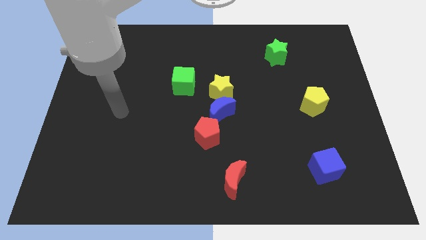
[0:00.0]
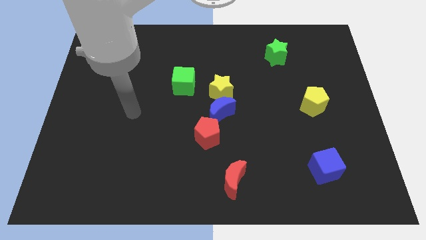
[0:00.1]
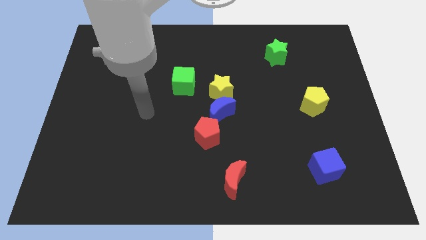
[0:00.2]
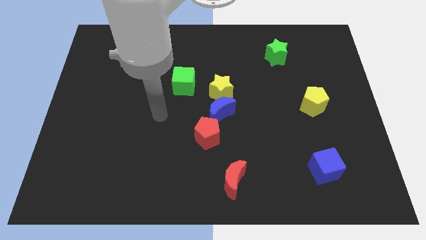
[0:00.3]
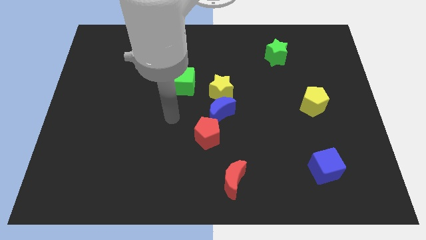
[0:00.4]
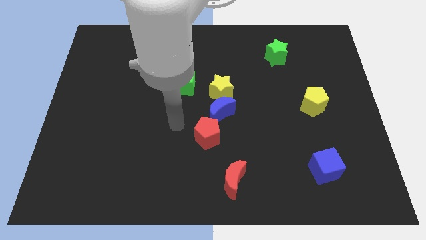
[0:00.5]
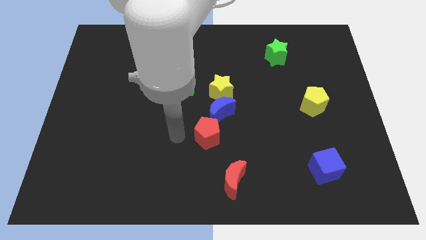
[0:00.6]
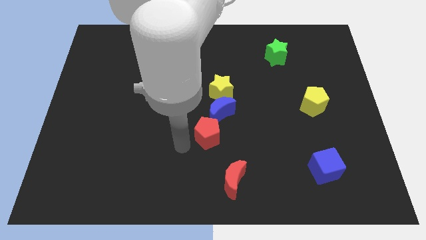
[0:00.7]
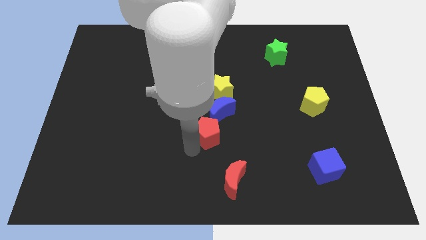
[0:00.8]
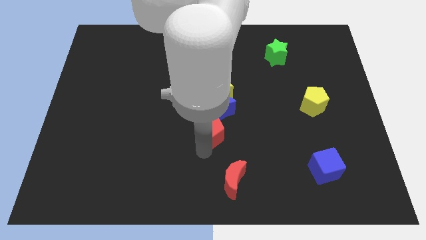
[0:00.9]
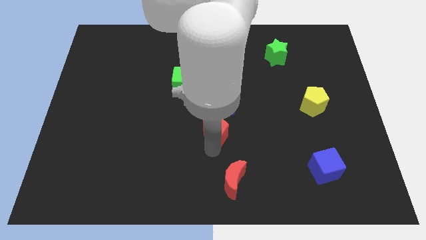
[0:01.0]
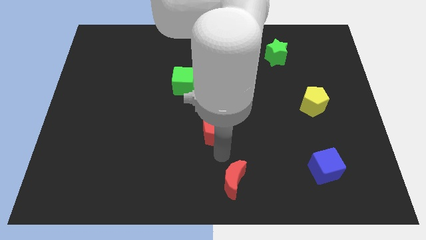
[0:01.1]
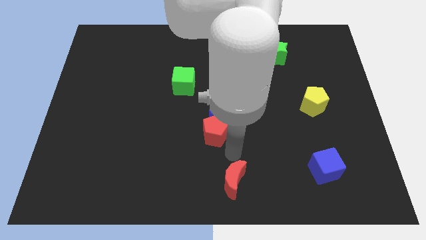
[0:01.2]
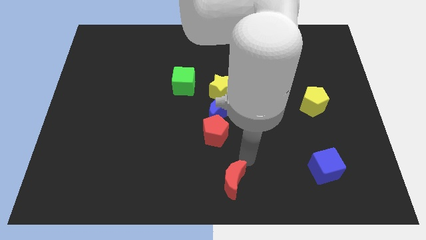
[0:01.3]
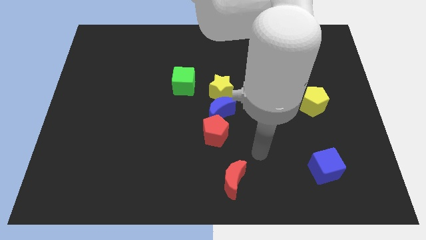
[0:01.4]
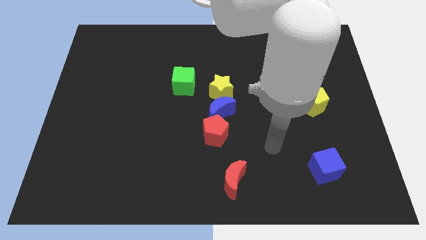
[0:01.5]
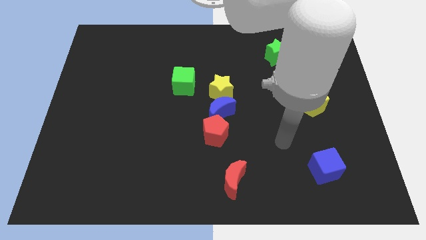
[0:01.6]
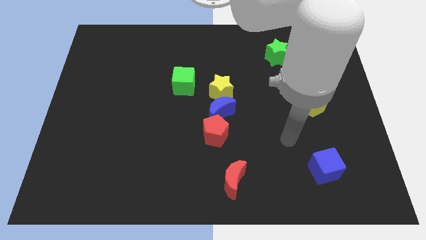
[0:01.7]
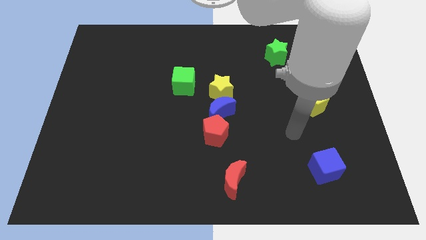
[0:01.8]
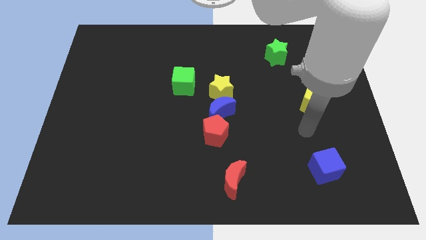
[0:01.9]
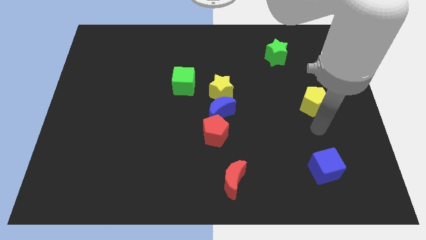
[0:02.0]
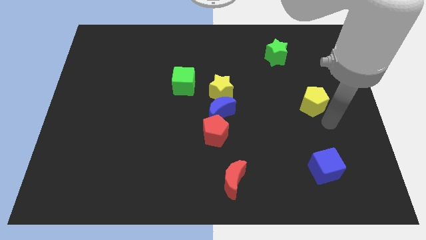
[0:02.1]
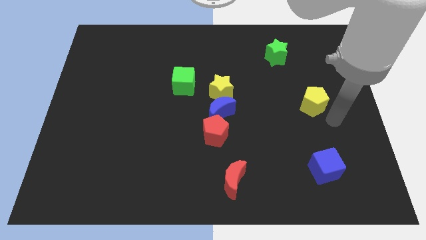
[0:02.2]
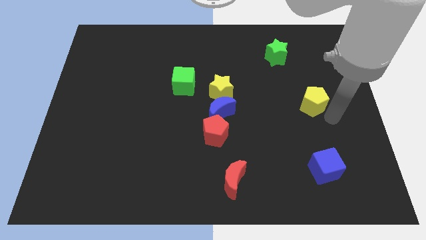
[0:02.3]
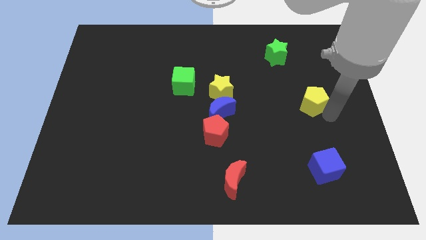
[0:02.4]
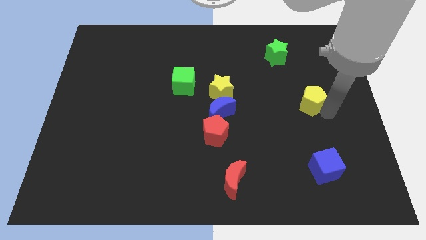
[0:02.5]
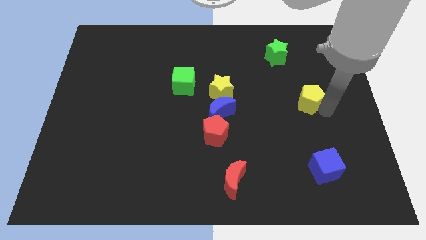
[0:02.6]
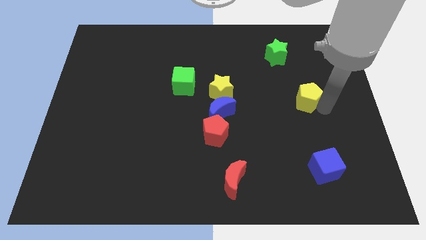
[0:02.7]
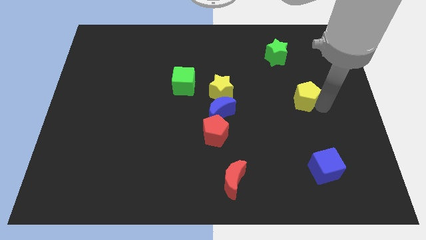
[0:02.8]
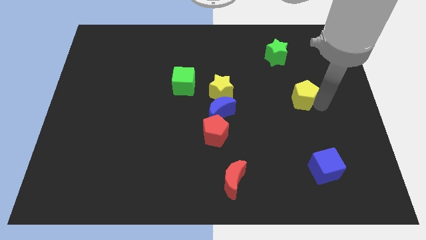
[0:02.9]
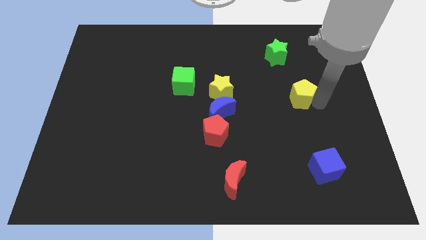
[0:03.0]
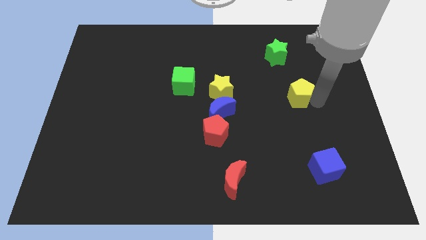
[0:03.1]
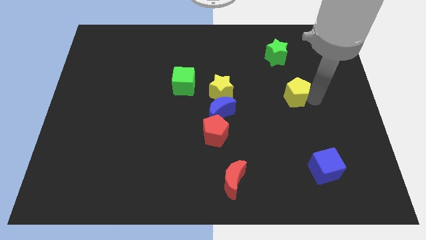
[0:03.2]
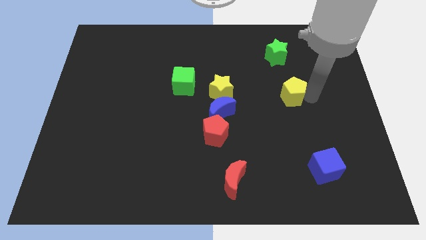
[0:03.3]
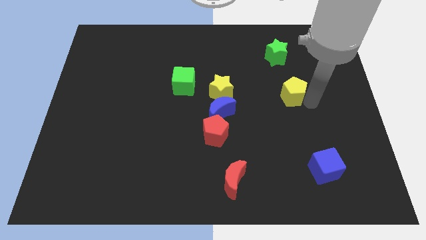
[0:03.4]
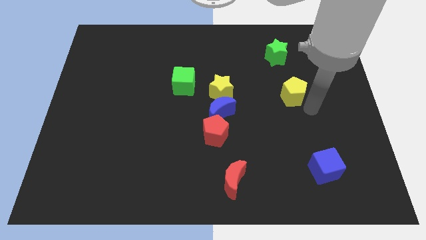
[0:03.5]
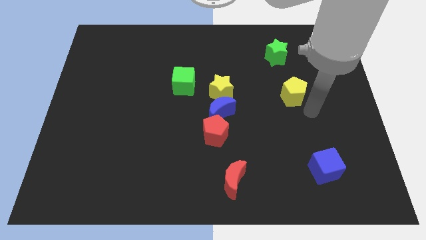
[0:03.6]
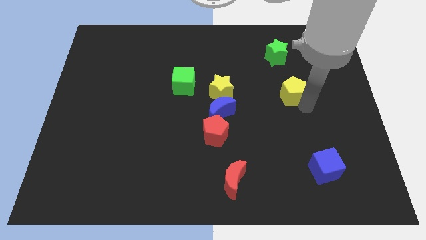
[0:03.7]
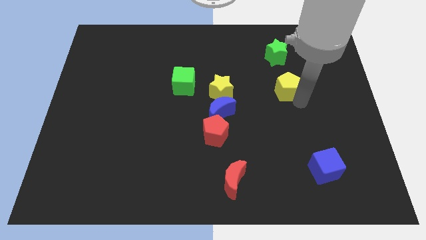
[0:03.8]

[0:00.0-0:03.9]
slightly push the yellow pentagon upwards and to the left

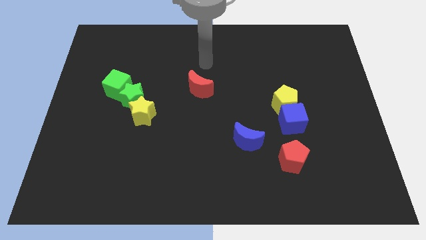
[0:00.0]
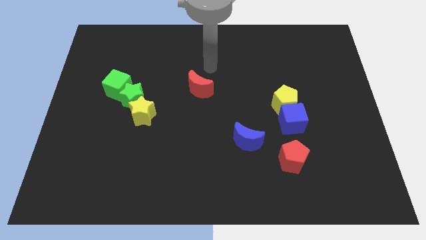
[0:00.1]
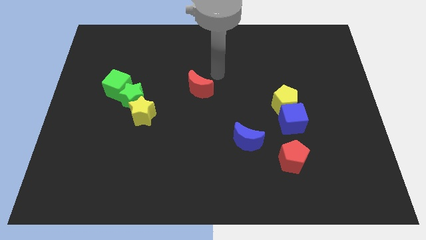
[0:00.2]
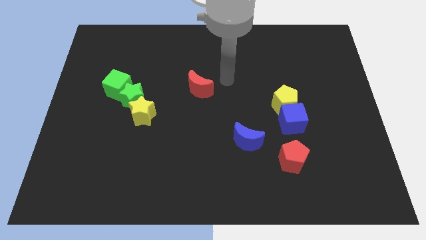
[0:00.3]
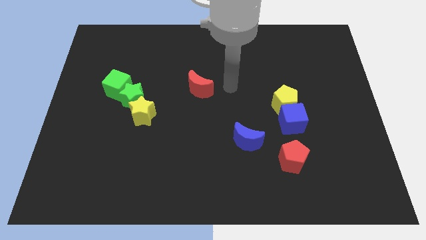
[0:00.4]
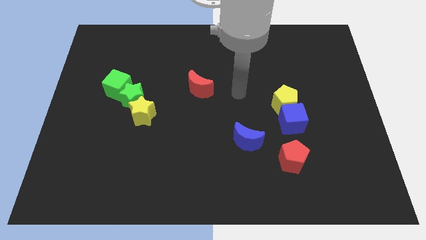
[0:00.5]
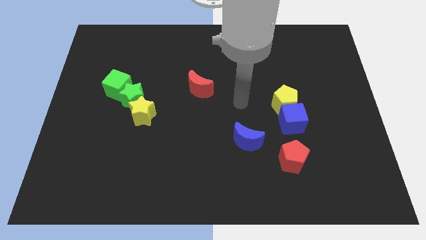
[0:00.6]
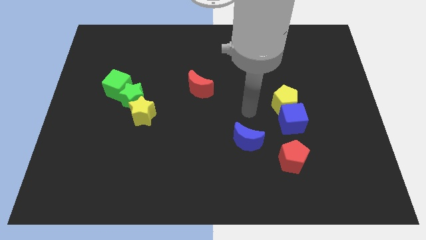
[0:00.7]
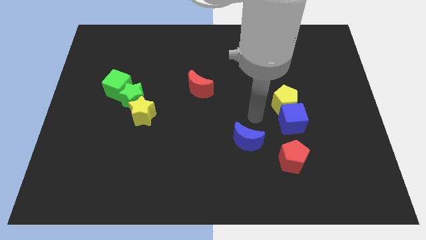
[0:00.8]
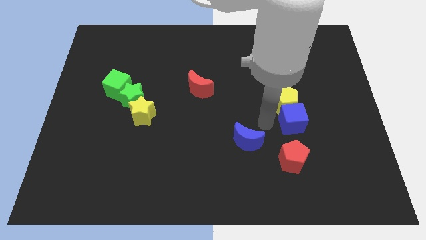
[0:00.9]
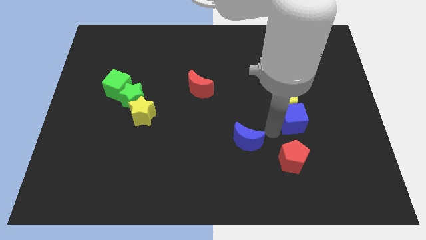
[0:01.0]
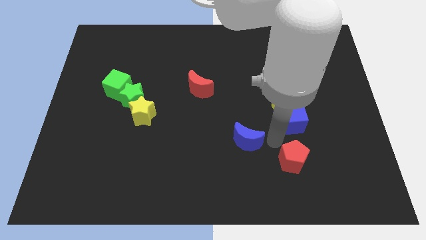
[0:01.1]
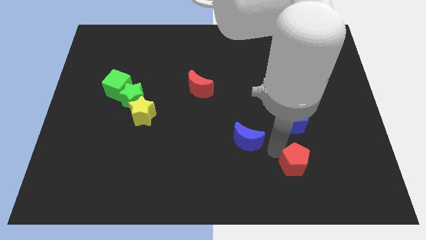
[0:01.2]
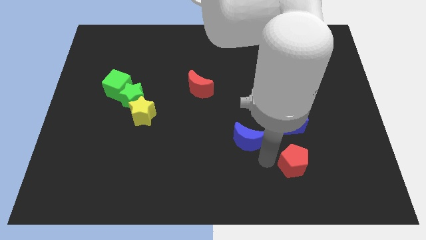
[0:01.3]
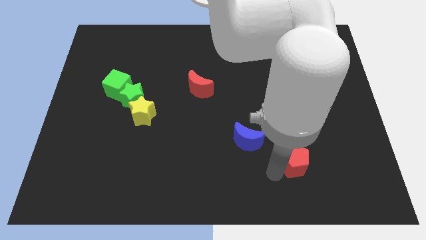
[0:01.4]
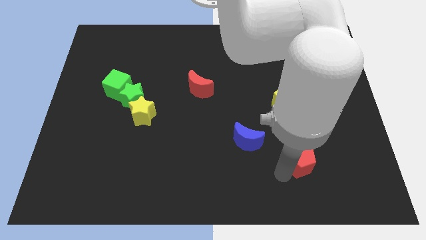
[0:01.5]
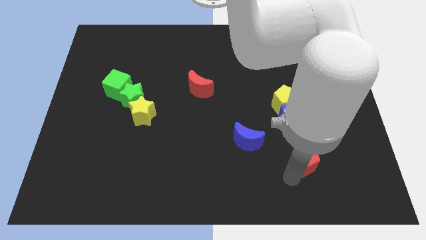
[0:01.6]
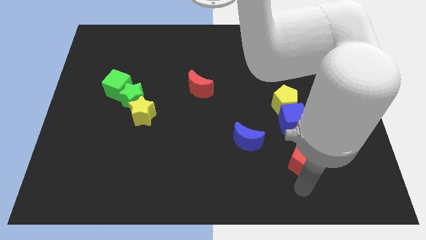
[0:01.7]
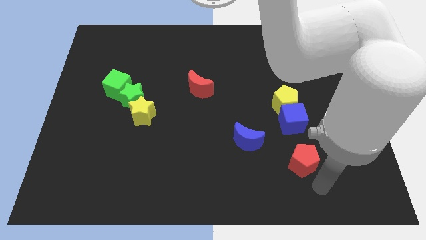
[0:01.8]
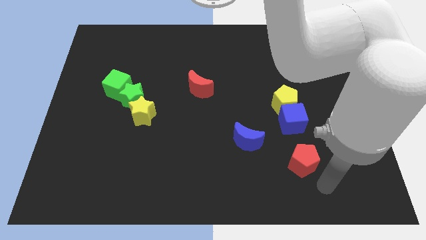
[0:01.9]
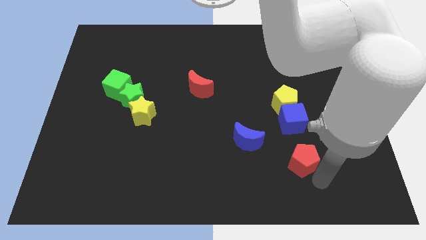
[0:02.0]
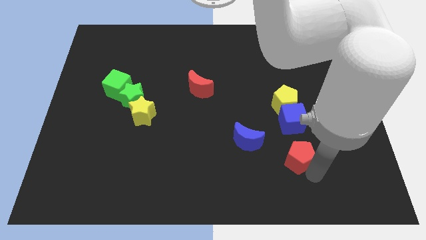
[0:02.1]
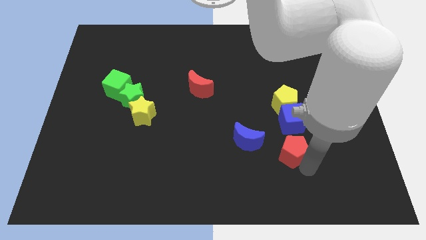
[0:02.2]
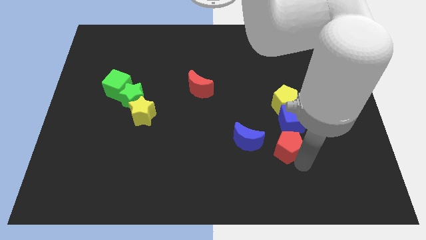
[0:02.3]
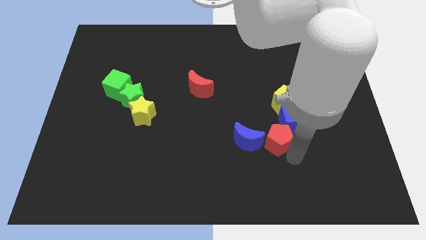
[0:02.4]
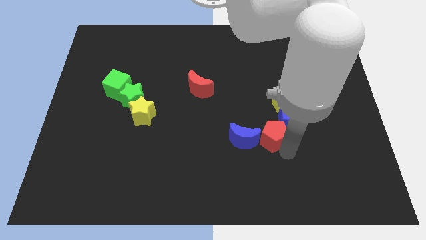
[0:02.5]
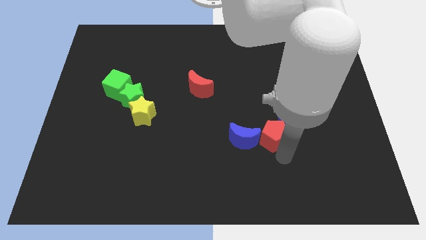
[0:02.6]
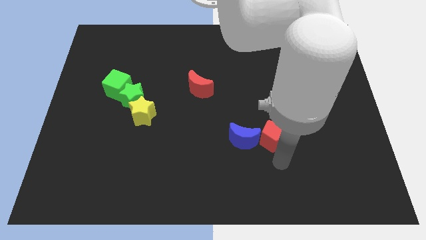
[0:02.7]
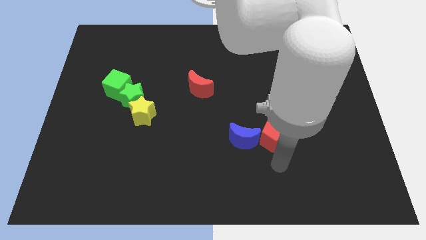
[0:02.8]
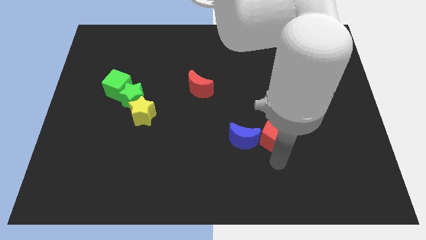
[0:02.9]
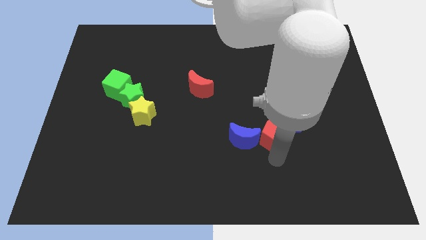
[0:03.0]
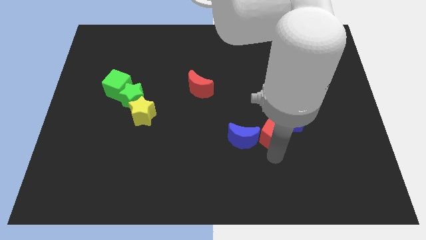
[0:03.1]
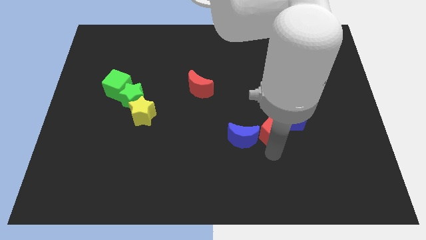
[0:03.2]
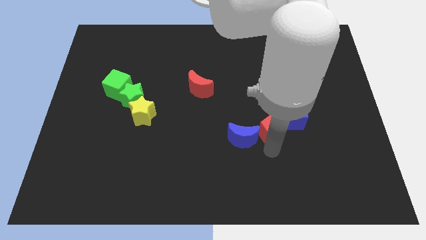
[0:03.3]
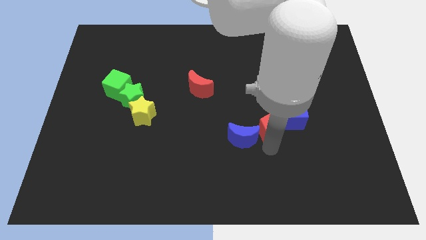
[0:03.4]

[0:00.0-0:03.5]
slightly move the red pentagon up

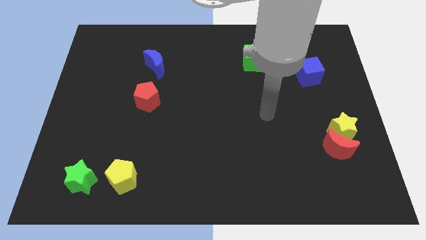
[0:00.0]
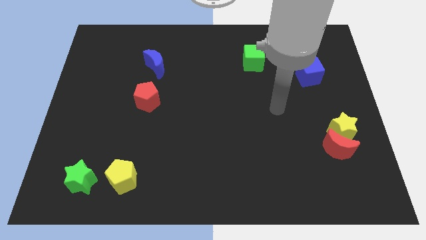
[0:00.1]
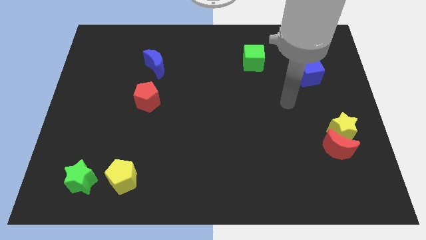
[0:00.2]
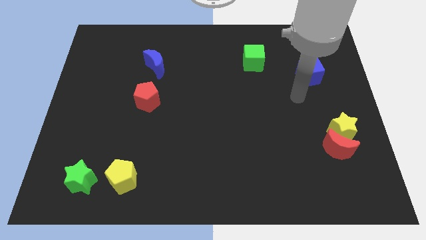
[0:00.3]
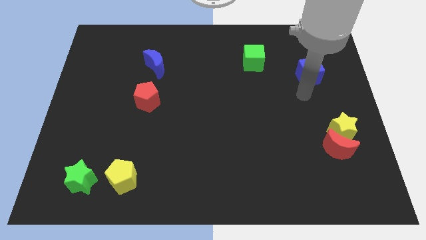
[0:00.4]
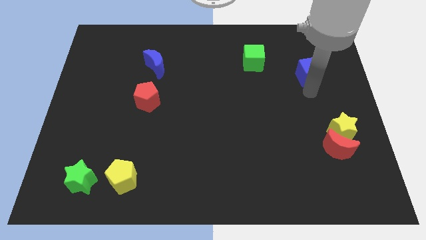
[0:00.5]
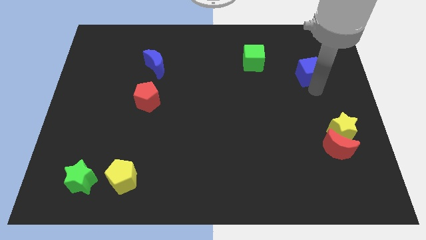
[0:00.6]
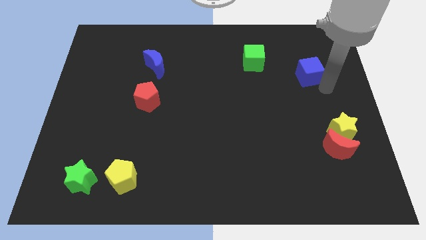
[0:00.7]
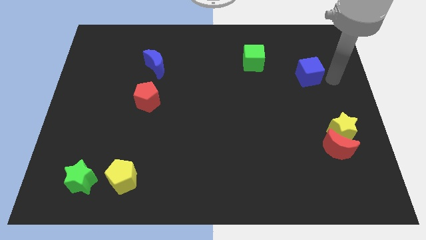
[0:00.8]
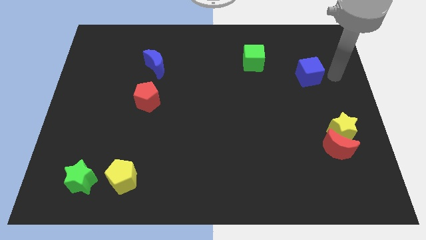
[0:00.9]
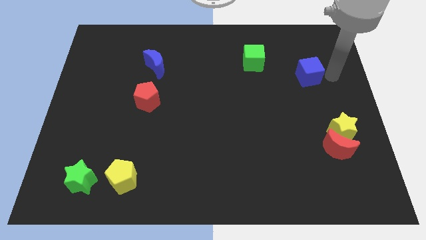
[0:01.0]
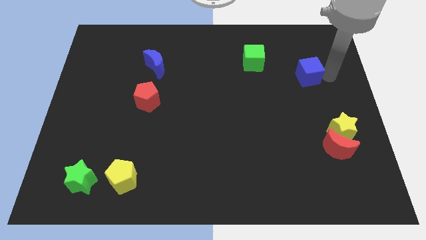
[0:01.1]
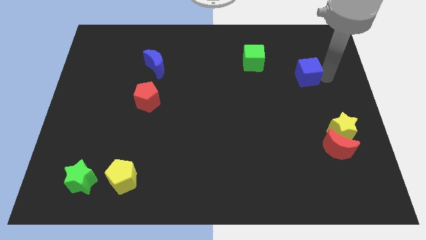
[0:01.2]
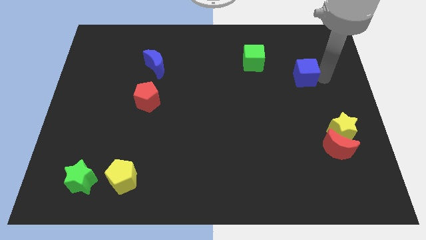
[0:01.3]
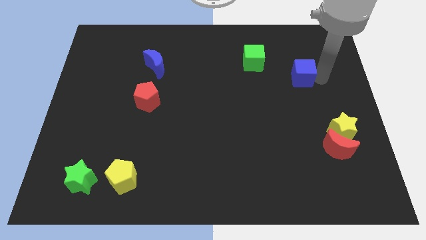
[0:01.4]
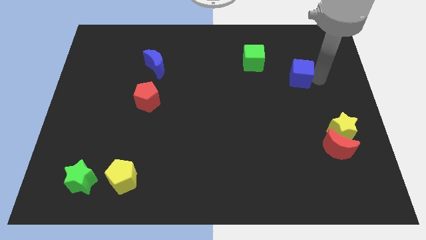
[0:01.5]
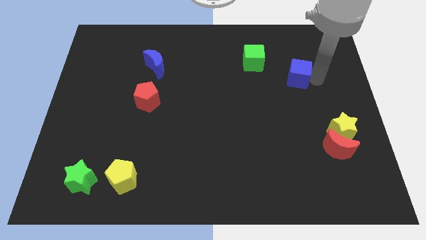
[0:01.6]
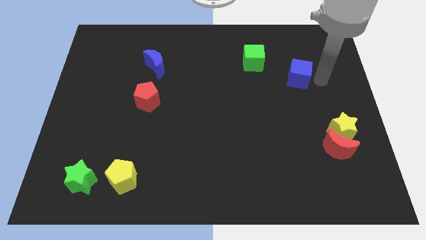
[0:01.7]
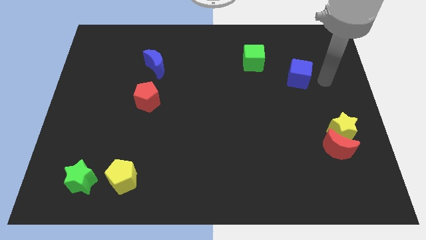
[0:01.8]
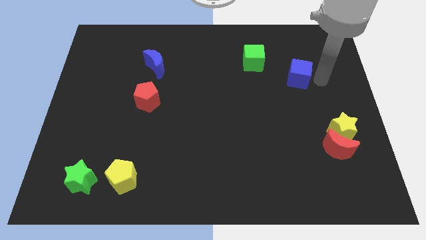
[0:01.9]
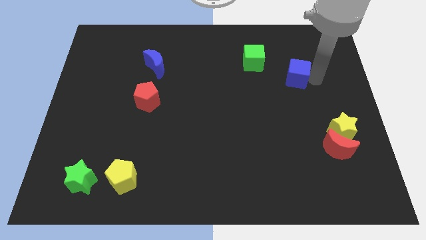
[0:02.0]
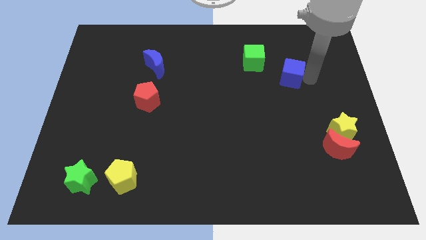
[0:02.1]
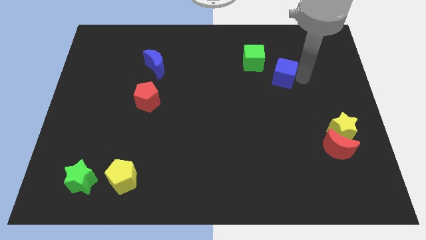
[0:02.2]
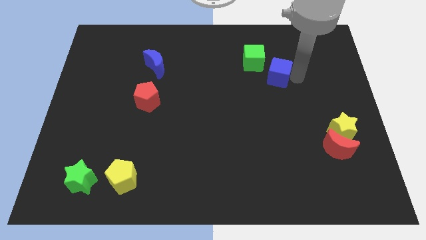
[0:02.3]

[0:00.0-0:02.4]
slightly push the blue cube to the left
